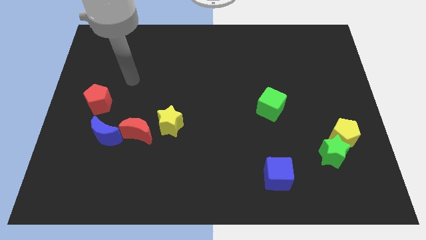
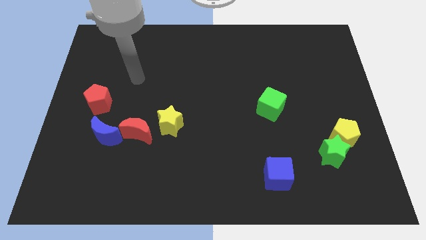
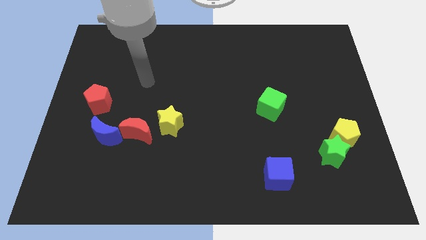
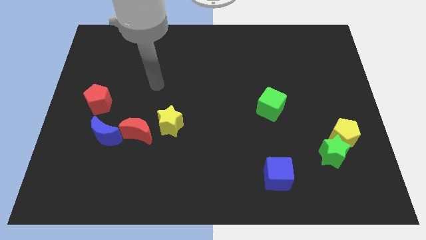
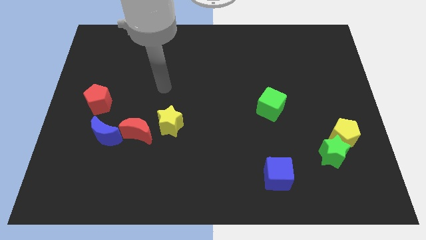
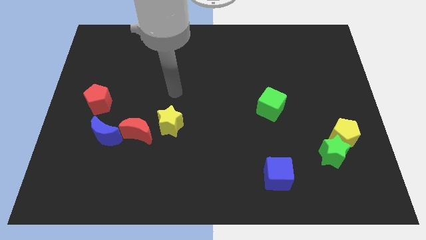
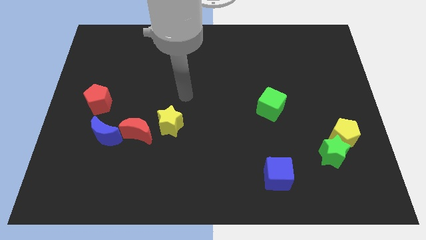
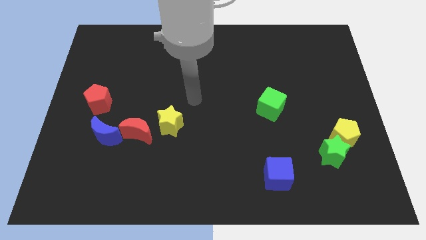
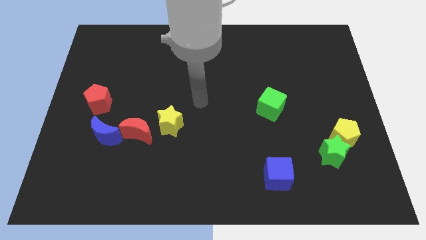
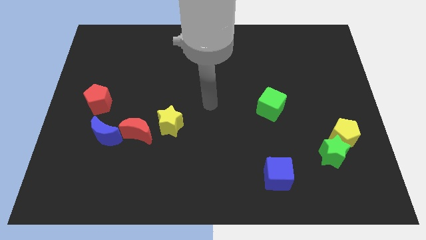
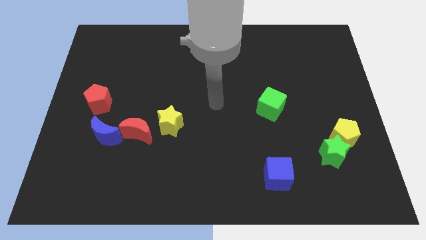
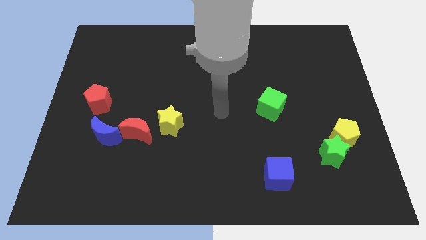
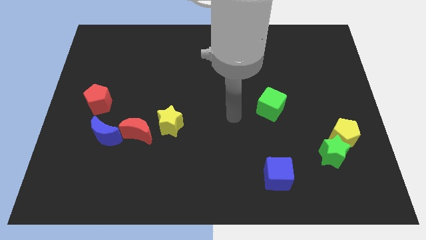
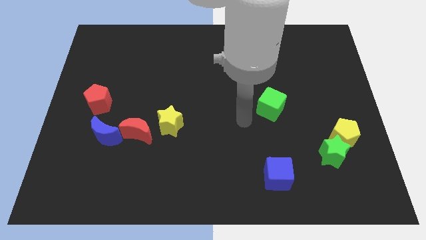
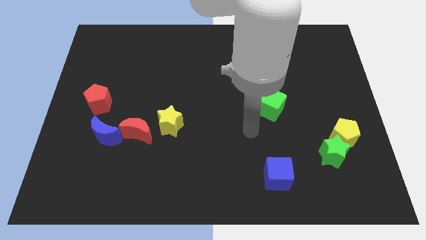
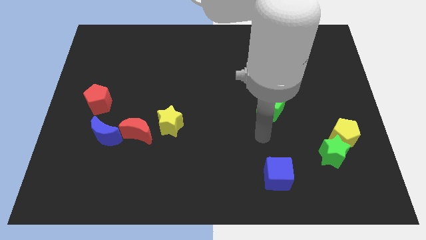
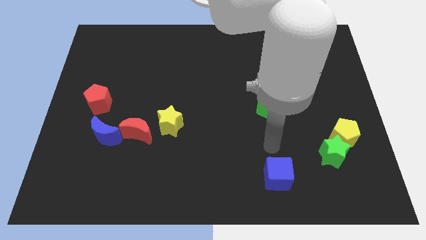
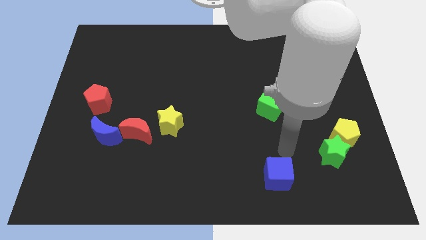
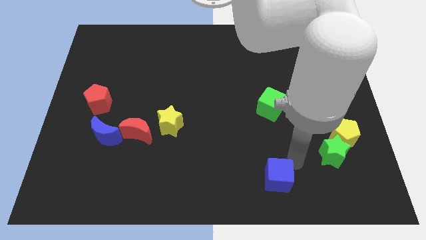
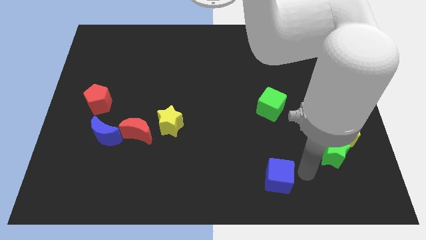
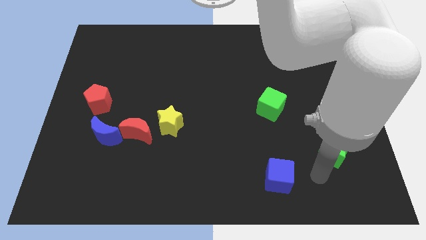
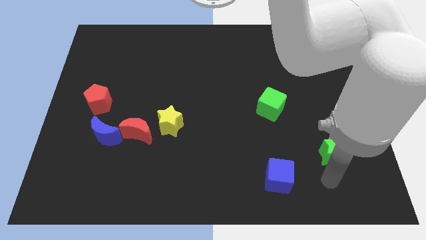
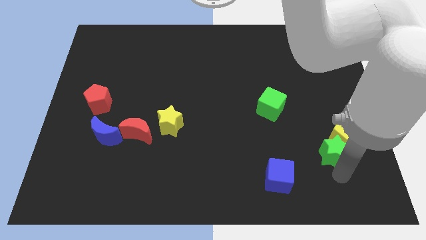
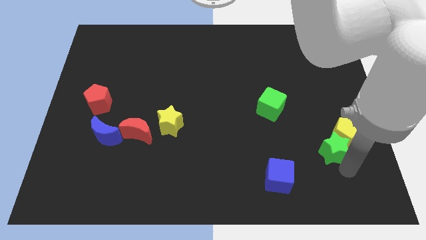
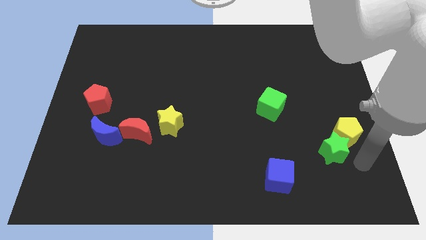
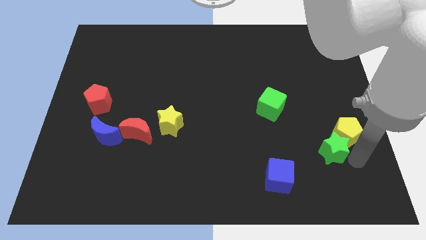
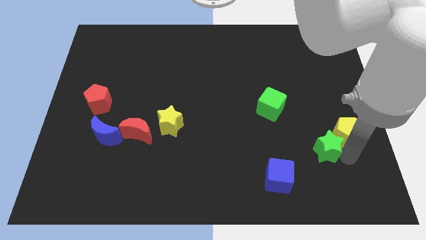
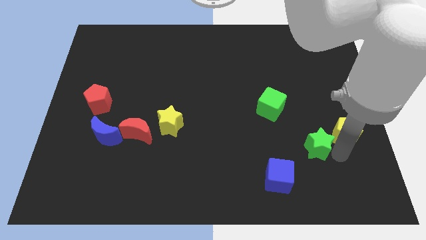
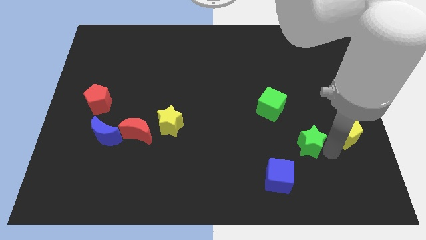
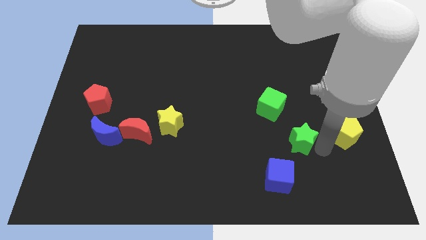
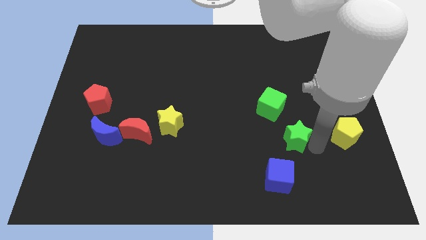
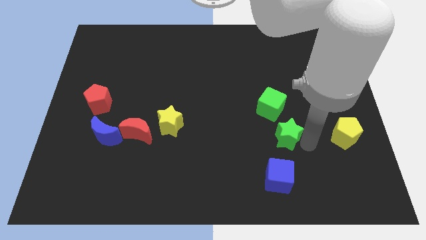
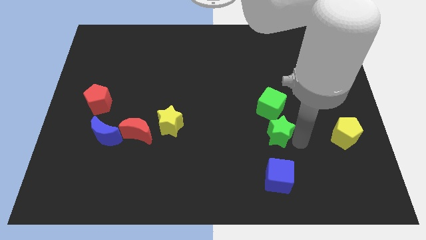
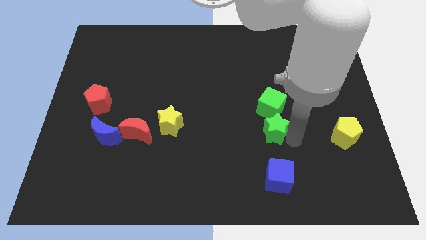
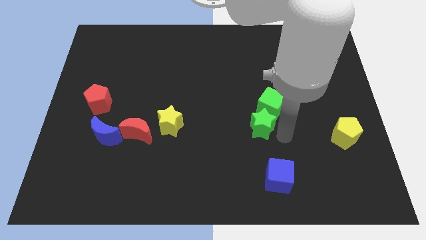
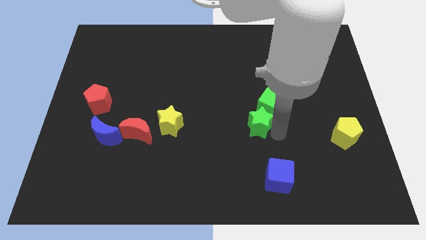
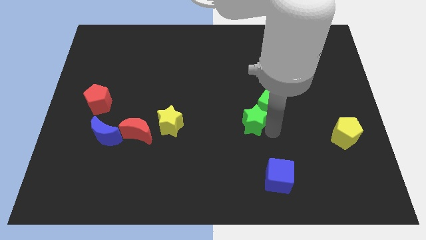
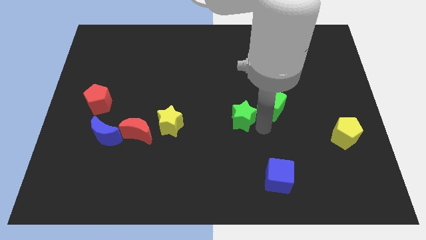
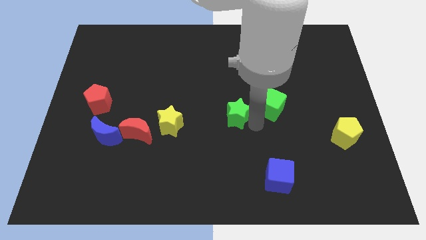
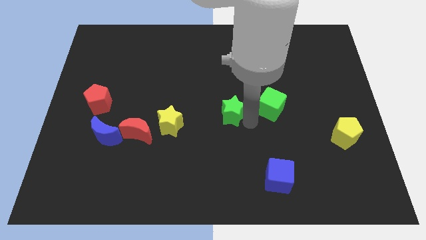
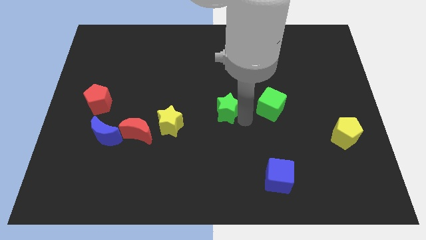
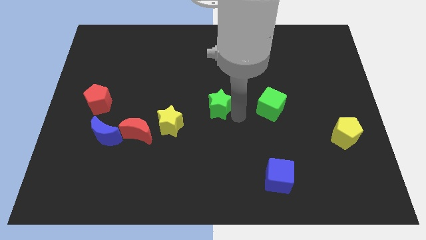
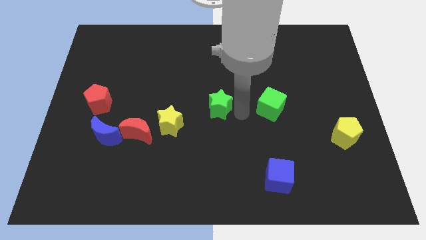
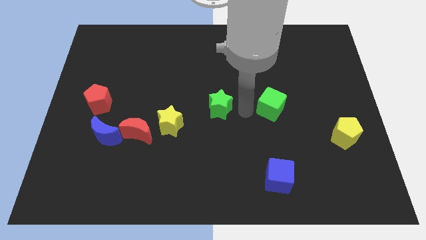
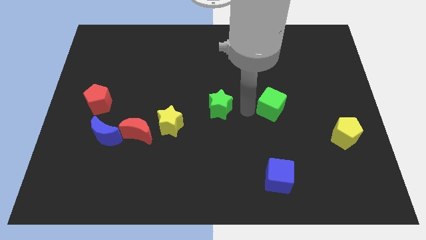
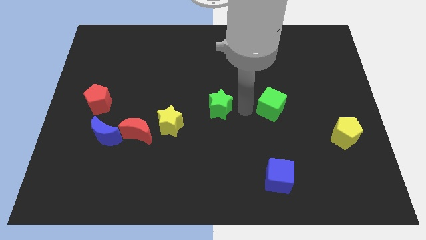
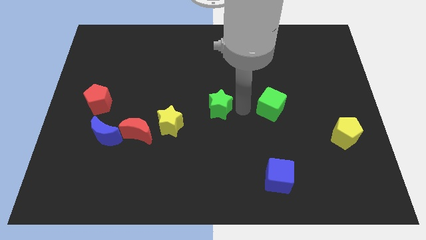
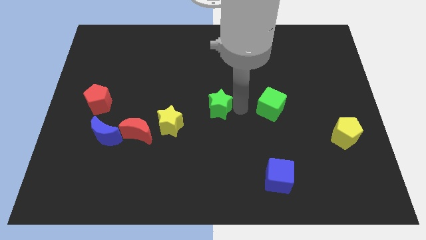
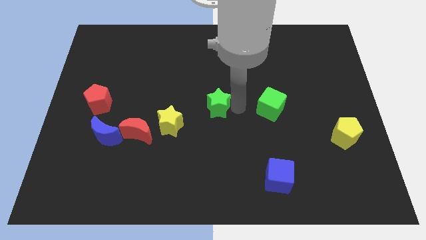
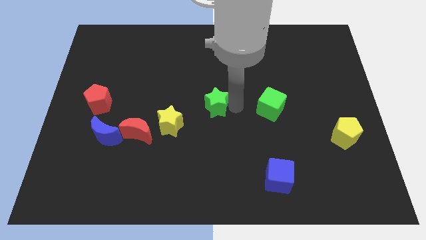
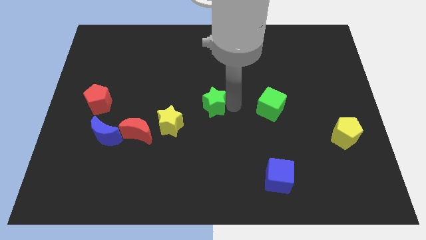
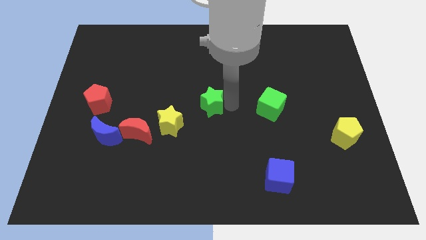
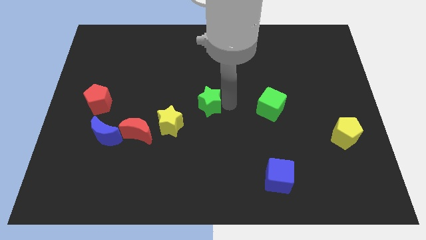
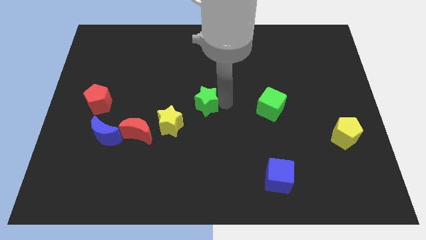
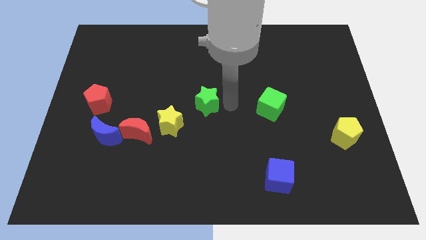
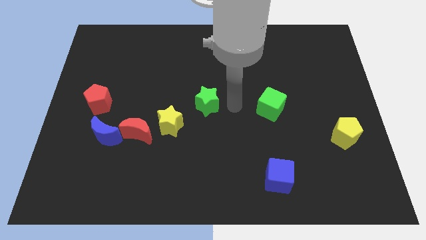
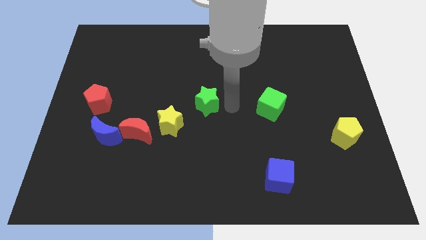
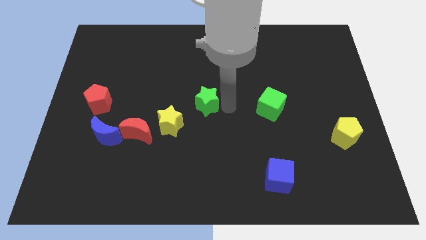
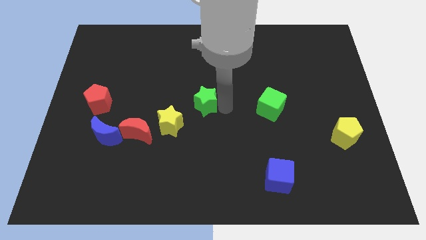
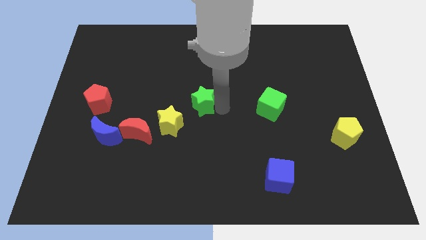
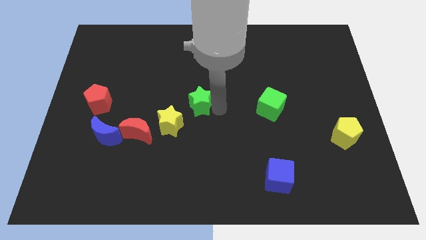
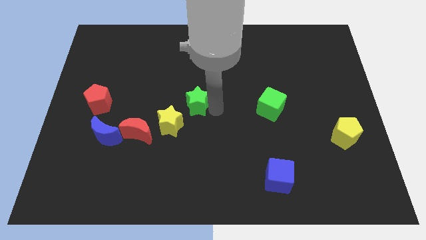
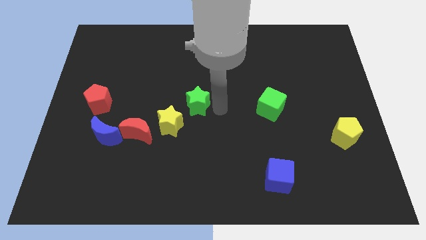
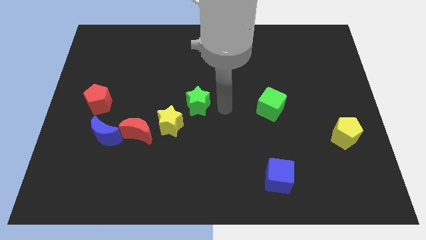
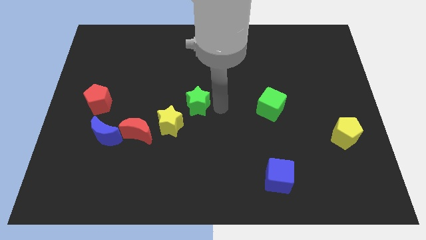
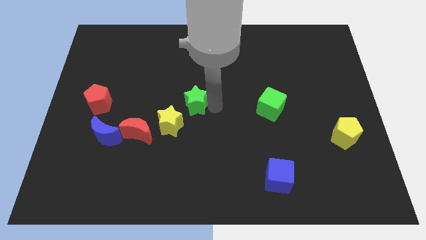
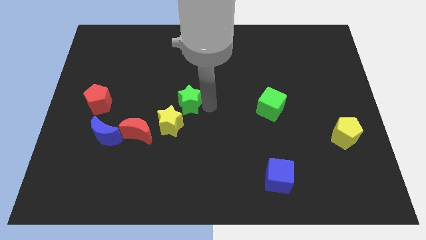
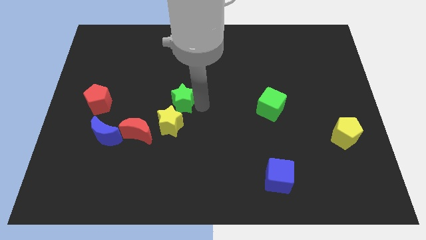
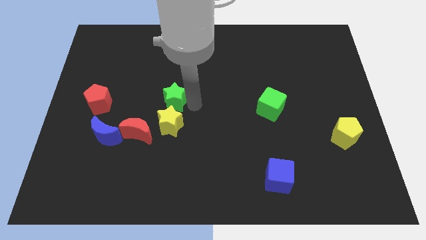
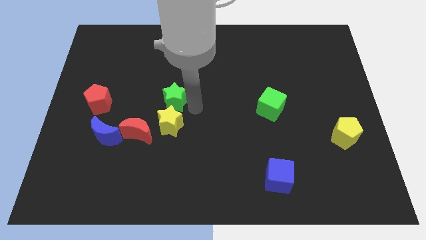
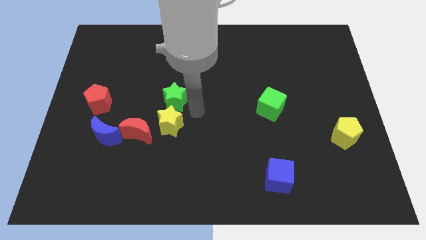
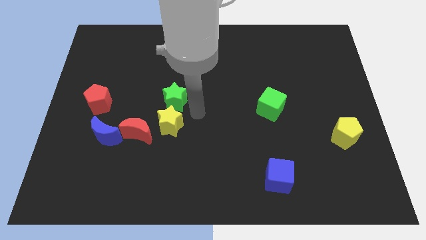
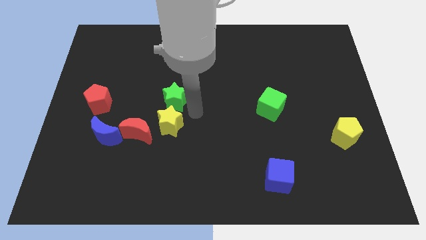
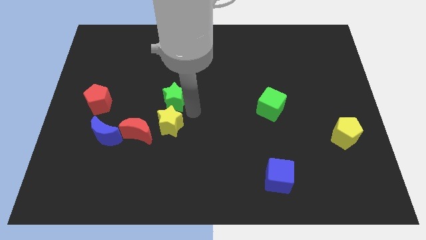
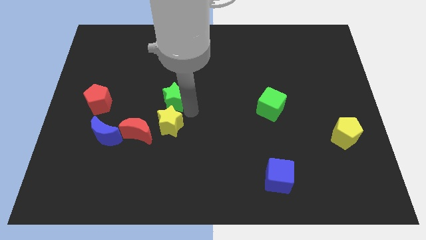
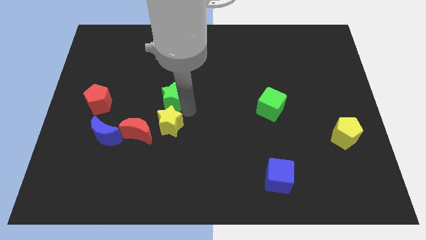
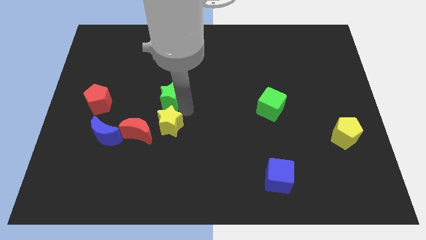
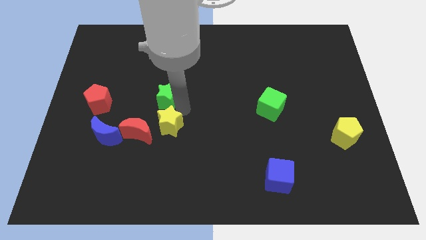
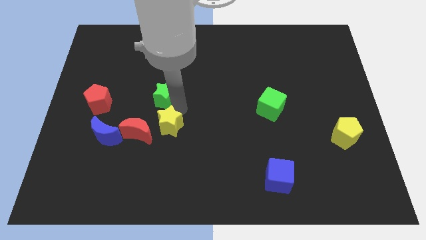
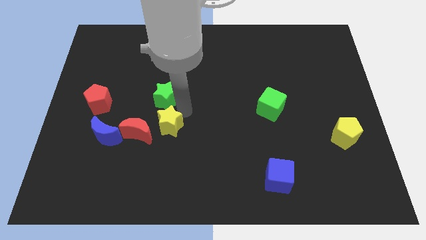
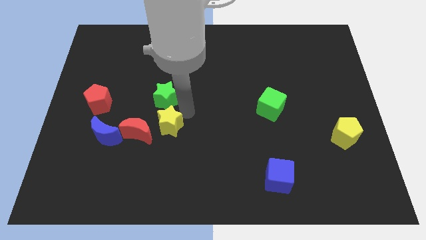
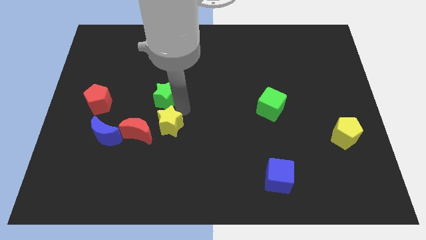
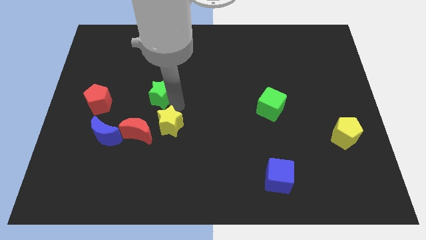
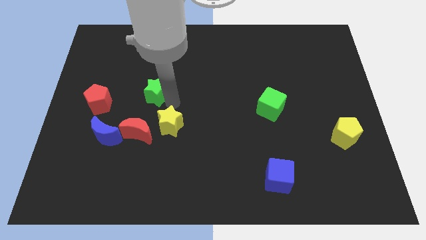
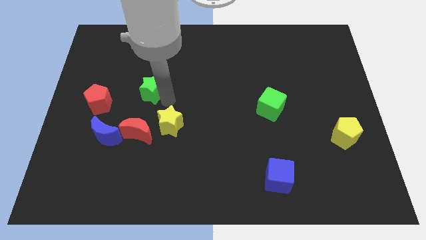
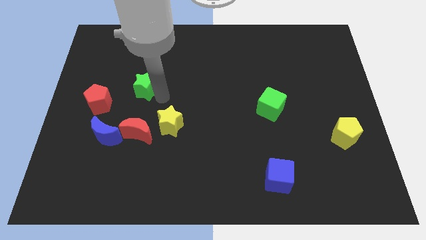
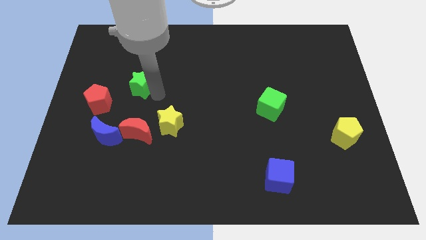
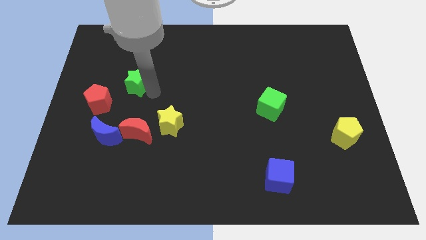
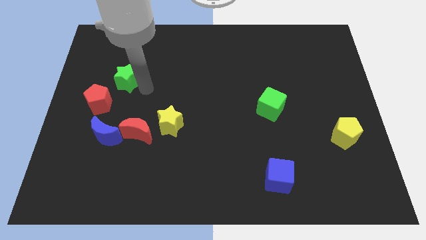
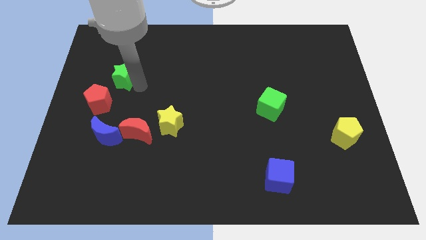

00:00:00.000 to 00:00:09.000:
slide the green star to the top side of the red pentagon
